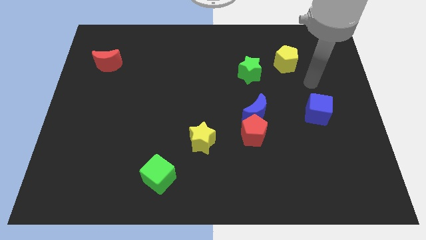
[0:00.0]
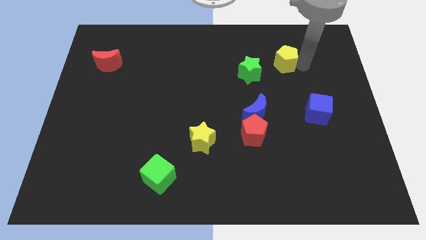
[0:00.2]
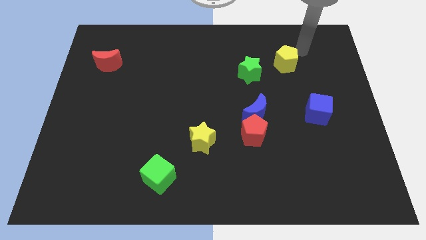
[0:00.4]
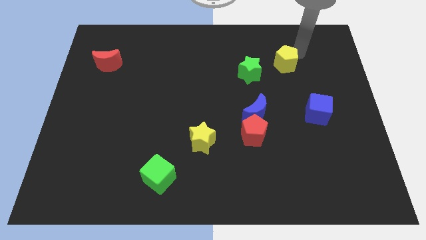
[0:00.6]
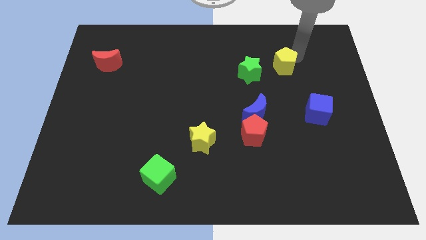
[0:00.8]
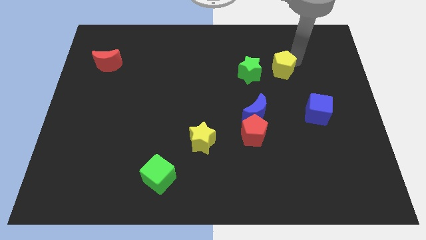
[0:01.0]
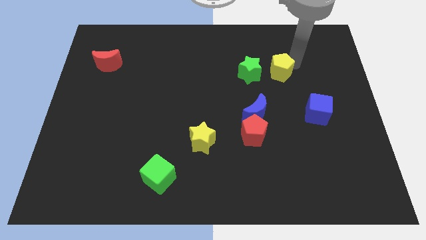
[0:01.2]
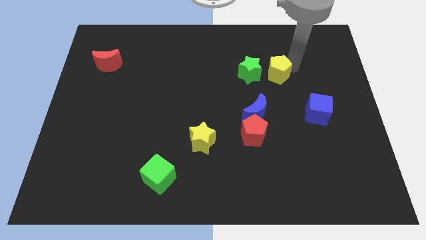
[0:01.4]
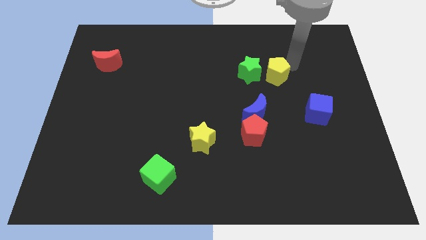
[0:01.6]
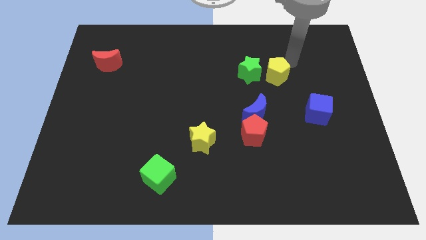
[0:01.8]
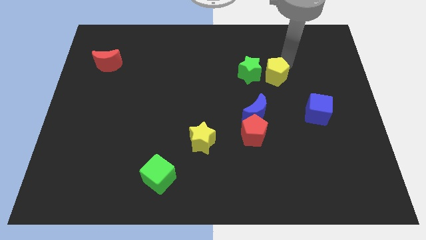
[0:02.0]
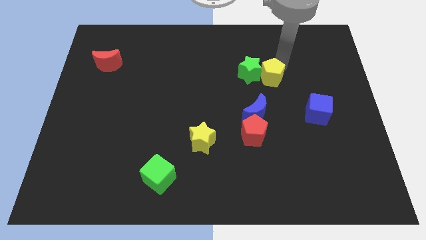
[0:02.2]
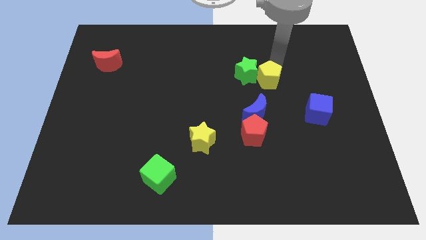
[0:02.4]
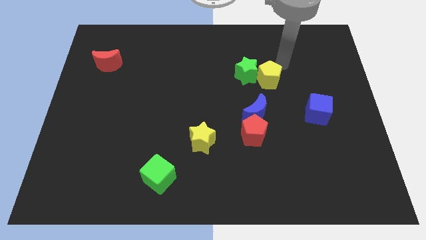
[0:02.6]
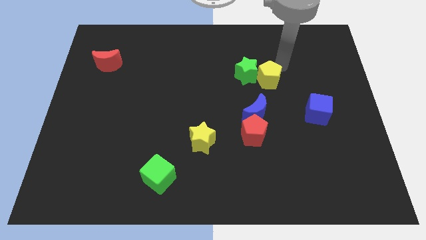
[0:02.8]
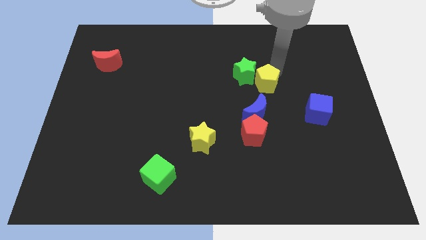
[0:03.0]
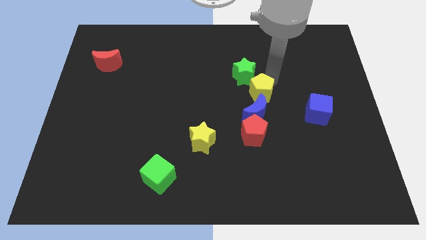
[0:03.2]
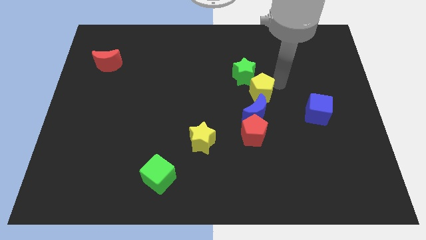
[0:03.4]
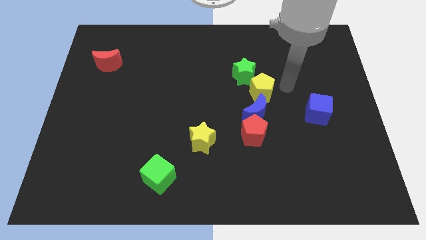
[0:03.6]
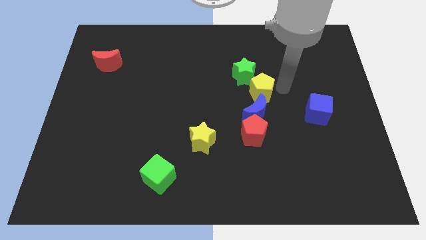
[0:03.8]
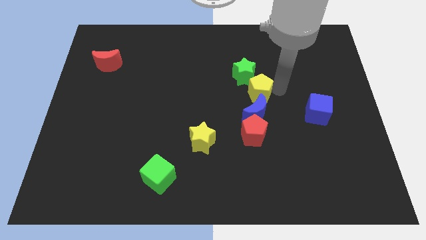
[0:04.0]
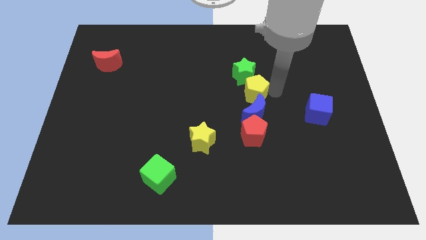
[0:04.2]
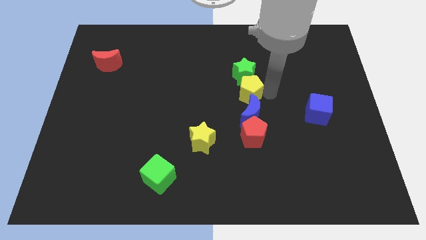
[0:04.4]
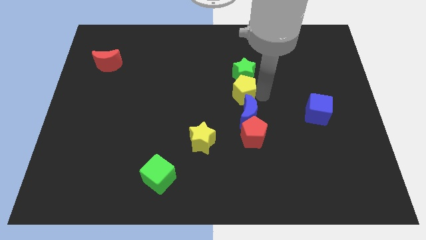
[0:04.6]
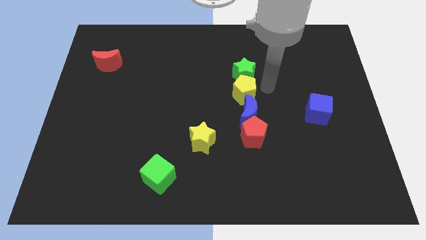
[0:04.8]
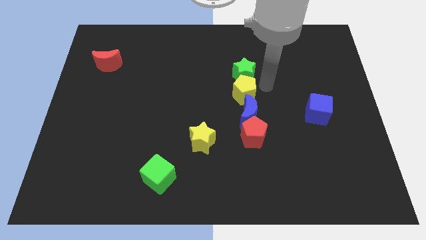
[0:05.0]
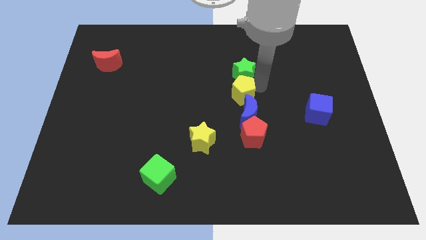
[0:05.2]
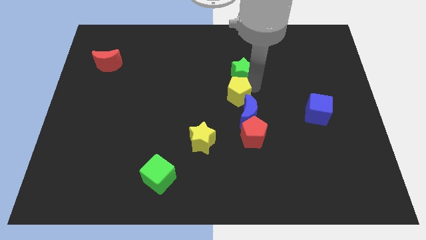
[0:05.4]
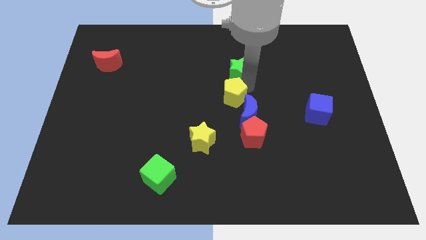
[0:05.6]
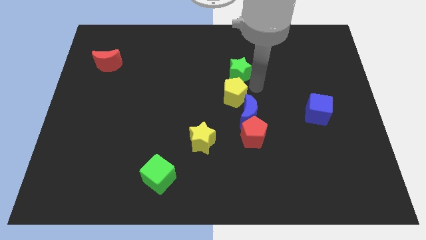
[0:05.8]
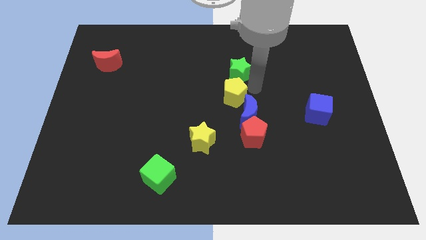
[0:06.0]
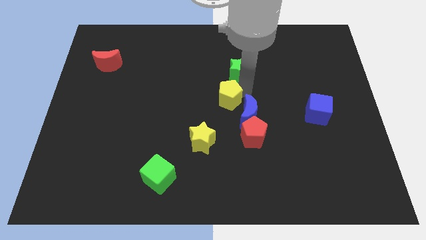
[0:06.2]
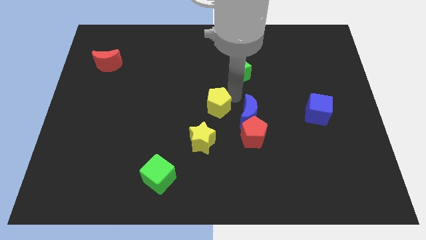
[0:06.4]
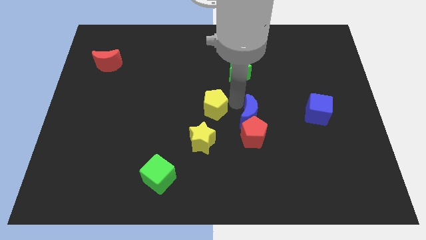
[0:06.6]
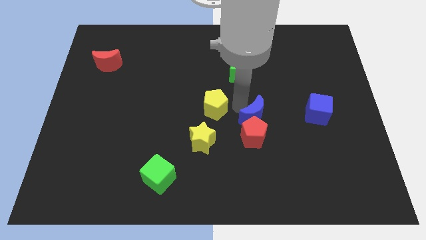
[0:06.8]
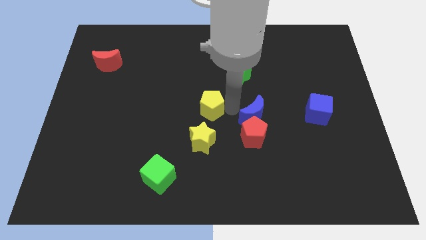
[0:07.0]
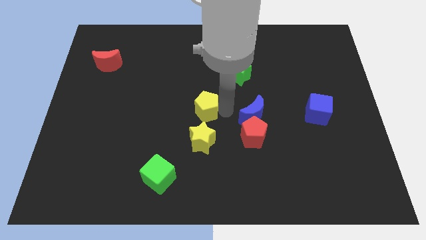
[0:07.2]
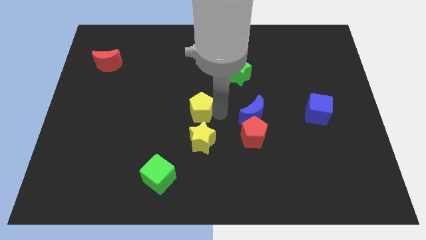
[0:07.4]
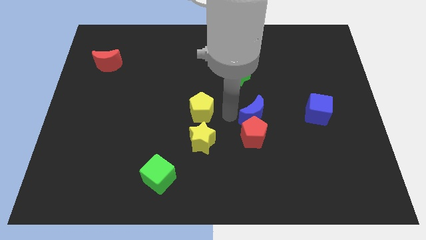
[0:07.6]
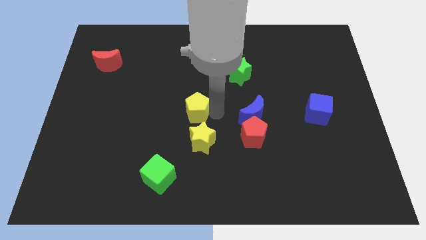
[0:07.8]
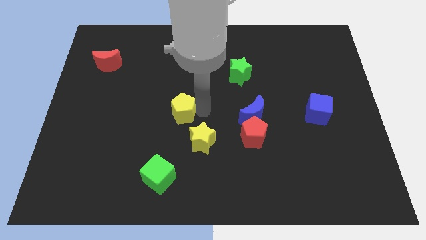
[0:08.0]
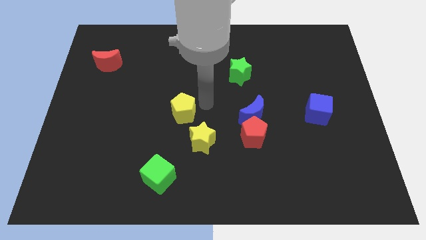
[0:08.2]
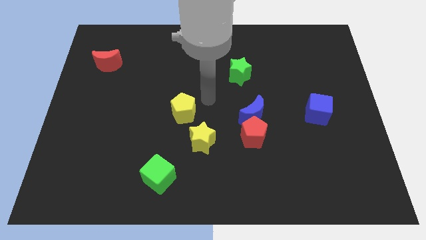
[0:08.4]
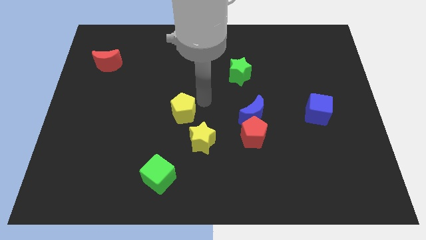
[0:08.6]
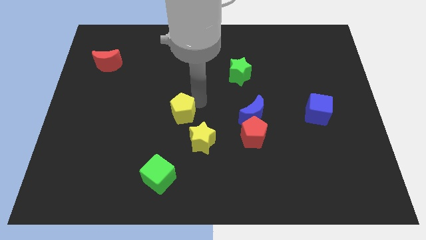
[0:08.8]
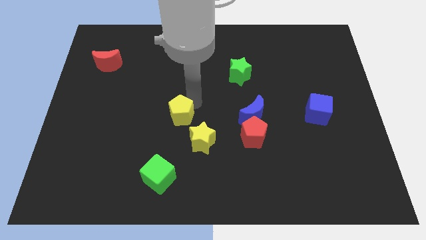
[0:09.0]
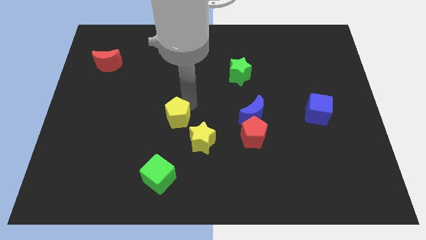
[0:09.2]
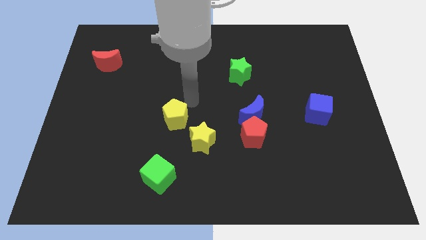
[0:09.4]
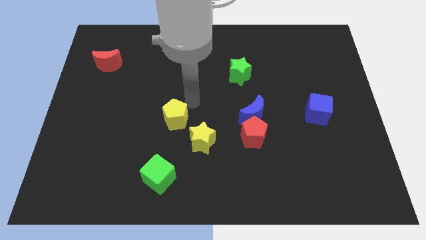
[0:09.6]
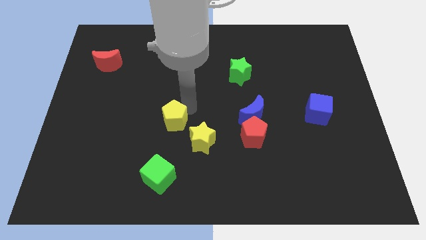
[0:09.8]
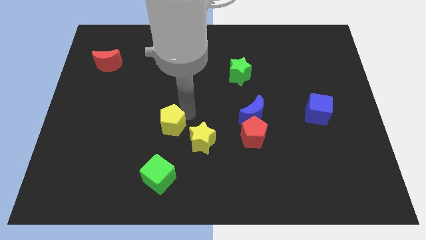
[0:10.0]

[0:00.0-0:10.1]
put the yellow pentagon to the left of the yellow star

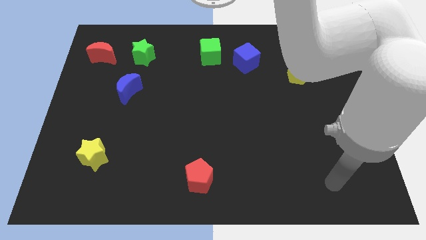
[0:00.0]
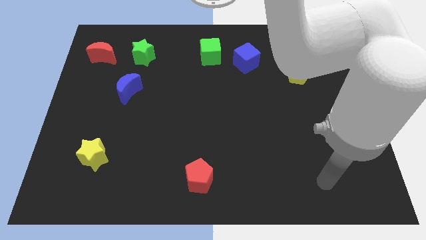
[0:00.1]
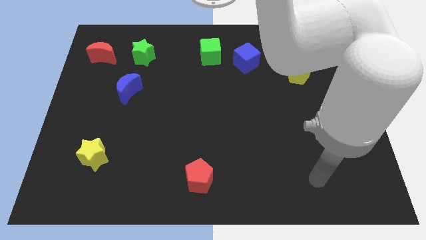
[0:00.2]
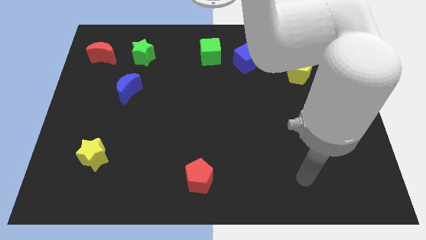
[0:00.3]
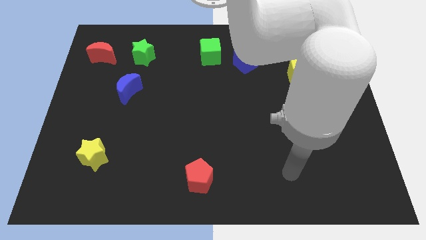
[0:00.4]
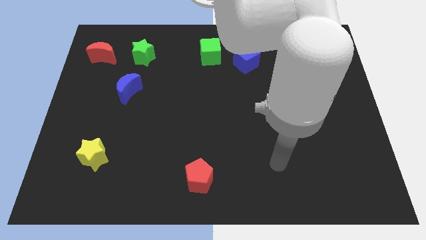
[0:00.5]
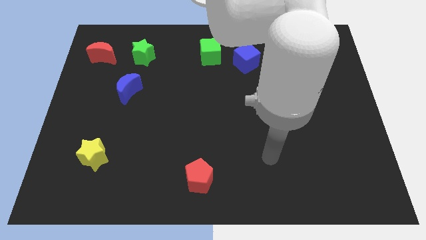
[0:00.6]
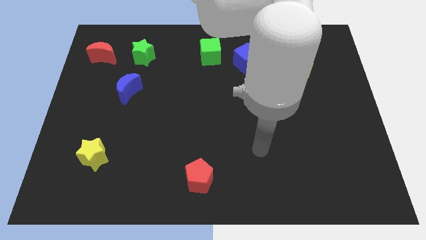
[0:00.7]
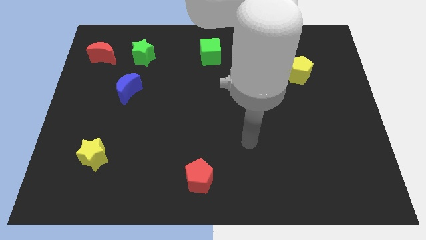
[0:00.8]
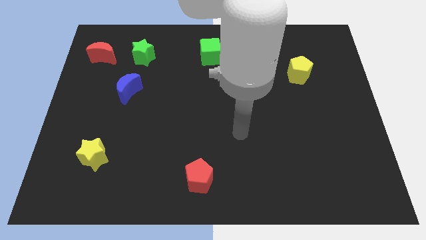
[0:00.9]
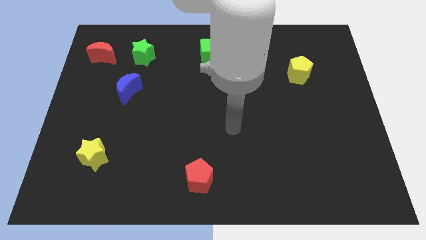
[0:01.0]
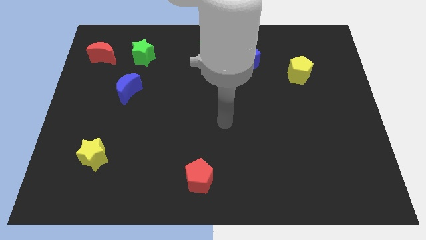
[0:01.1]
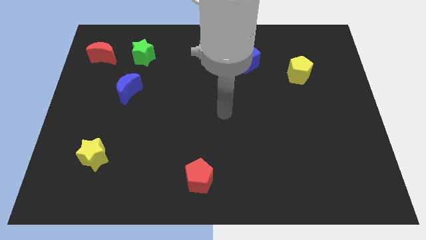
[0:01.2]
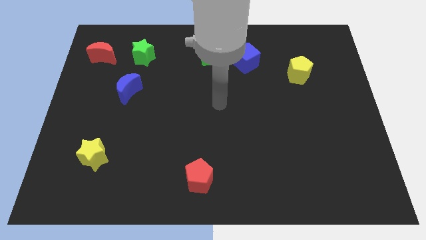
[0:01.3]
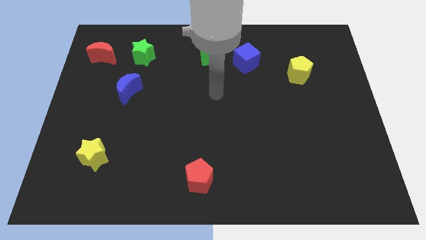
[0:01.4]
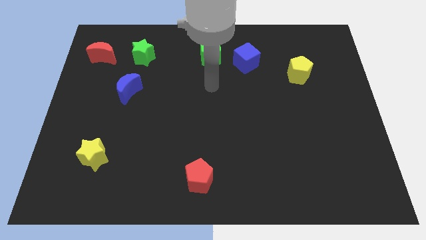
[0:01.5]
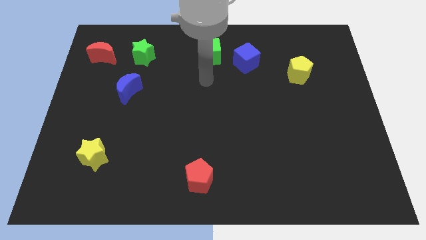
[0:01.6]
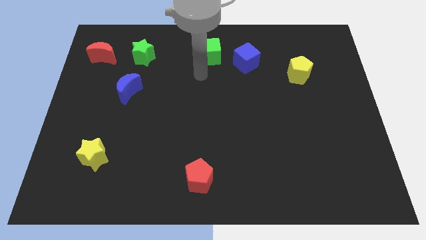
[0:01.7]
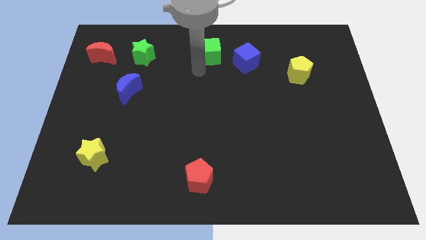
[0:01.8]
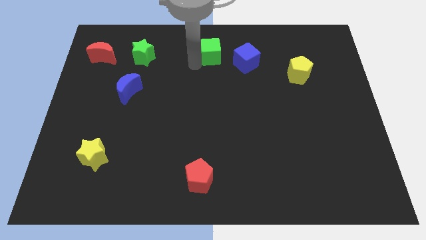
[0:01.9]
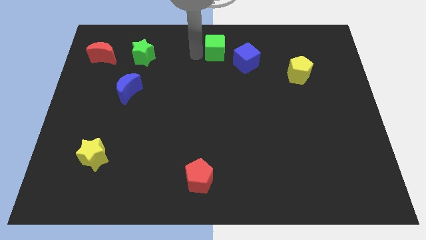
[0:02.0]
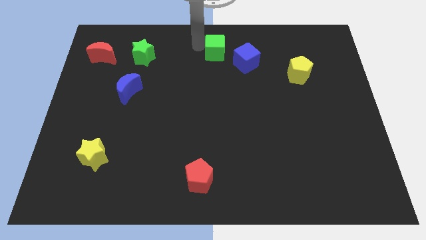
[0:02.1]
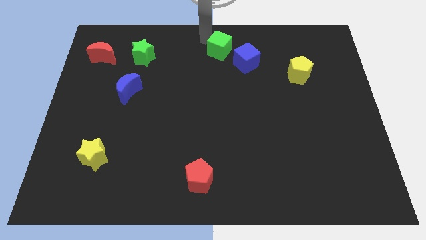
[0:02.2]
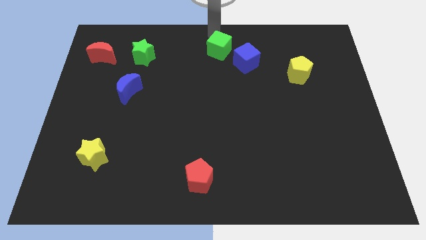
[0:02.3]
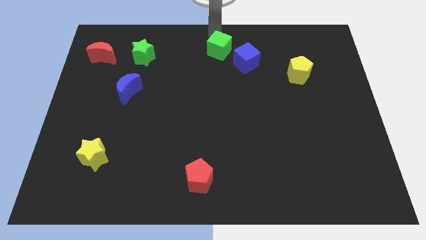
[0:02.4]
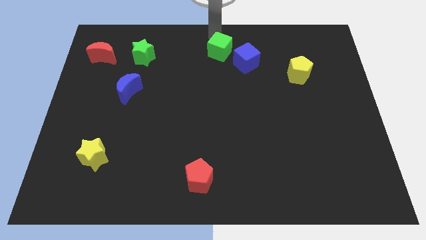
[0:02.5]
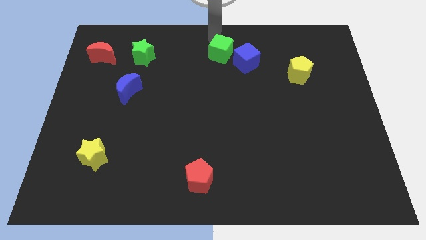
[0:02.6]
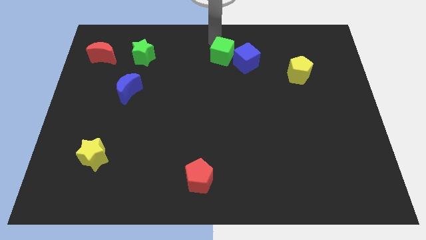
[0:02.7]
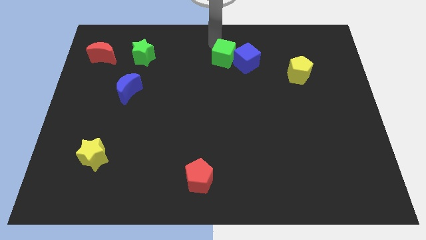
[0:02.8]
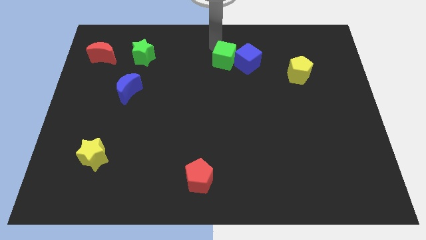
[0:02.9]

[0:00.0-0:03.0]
slide the green cube to the bottom left of the blue cube
